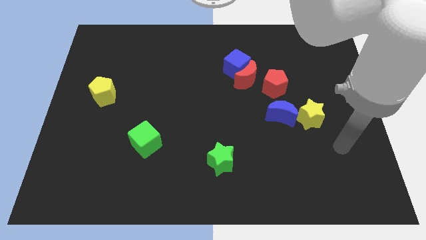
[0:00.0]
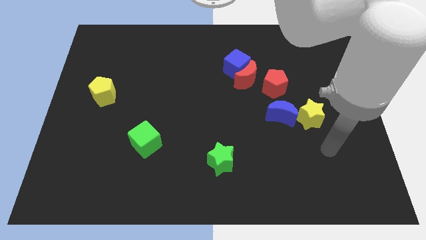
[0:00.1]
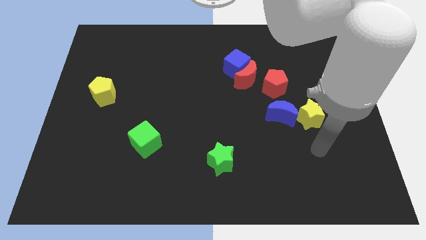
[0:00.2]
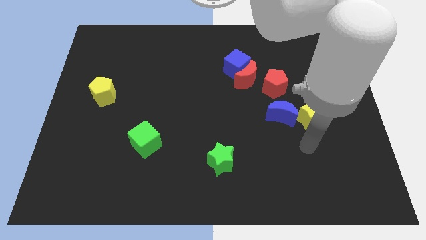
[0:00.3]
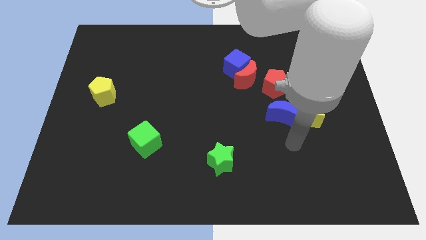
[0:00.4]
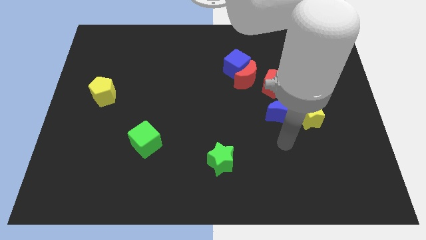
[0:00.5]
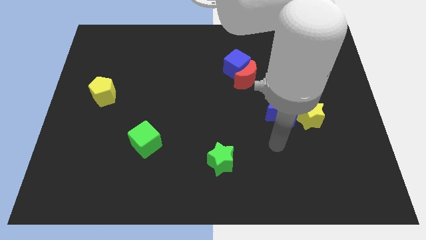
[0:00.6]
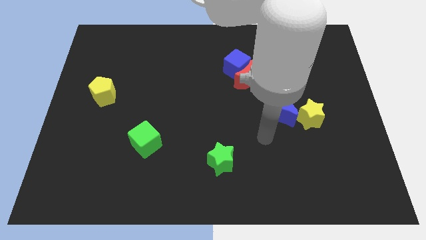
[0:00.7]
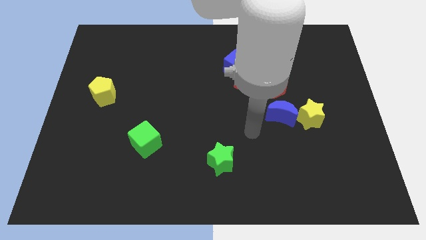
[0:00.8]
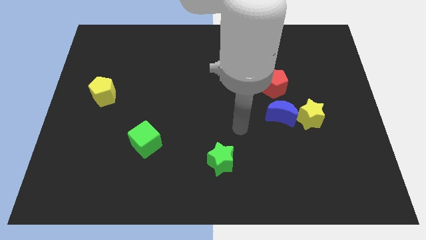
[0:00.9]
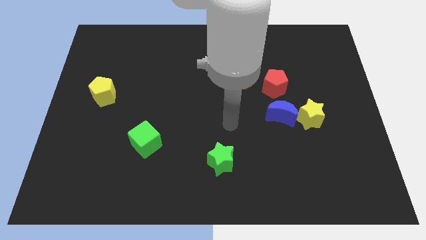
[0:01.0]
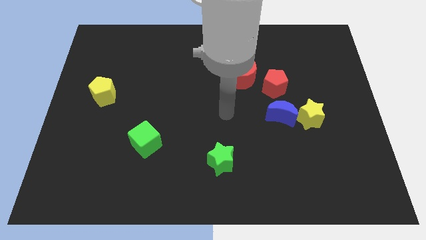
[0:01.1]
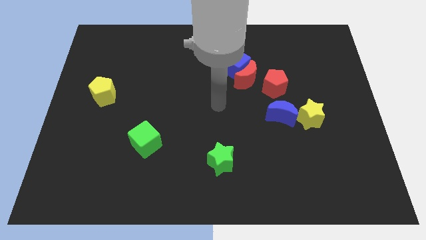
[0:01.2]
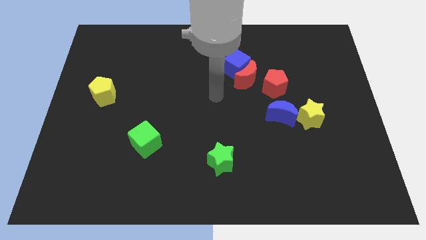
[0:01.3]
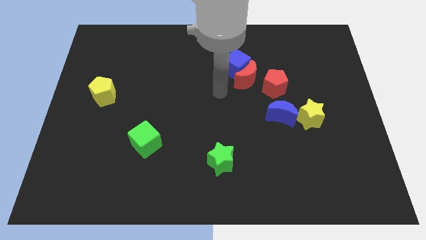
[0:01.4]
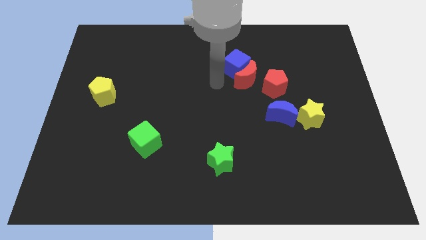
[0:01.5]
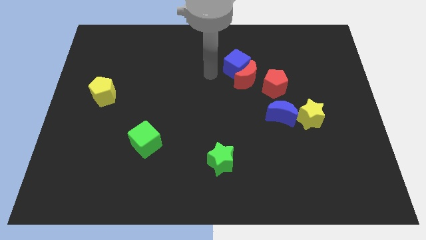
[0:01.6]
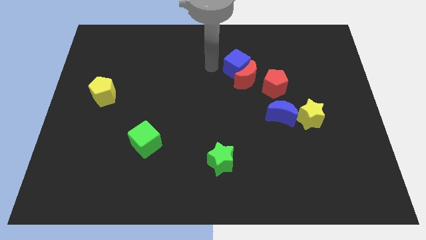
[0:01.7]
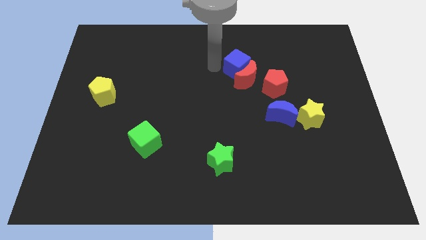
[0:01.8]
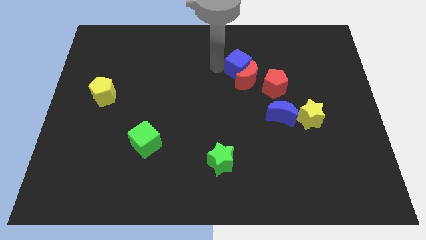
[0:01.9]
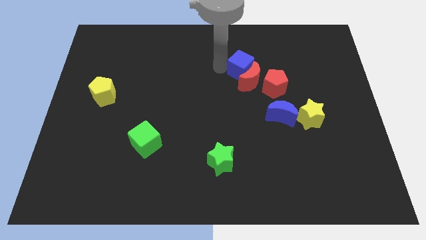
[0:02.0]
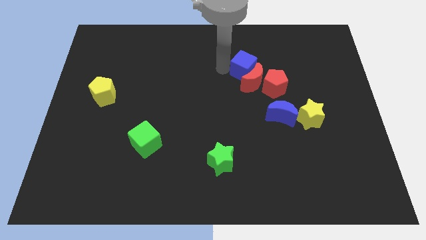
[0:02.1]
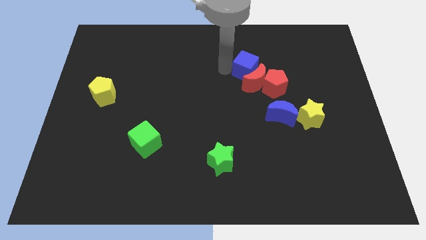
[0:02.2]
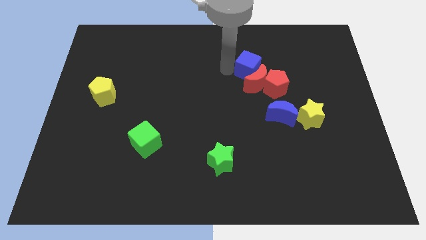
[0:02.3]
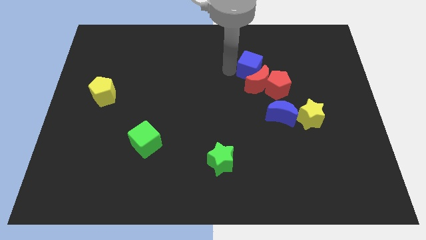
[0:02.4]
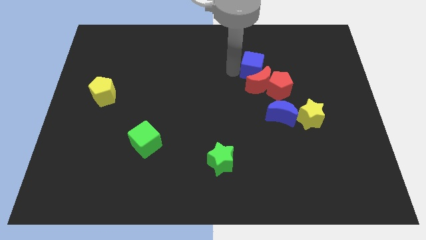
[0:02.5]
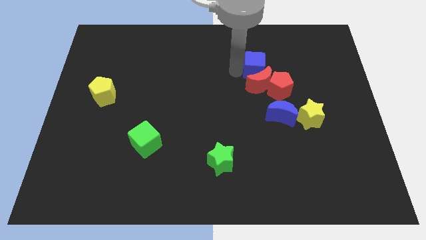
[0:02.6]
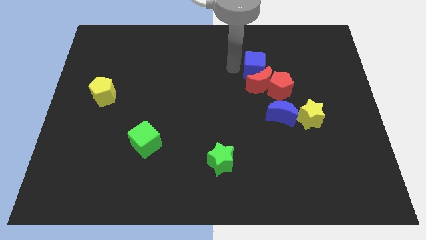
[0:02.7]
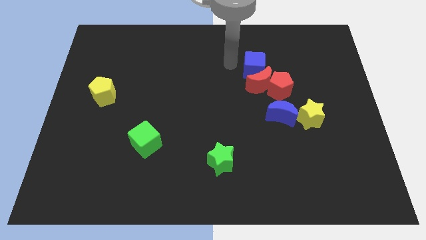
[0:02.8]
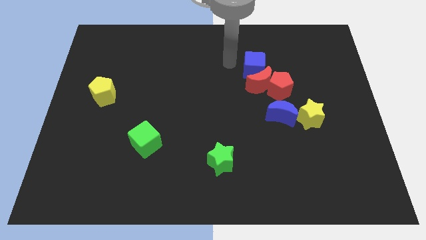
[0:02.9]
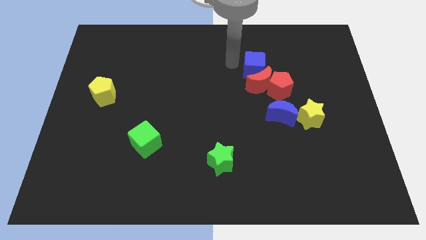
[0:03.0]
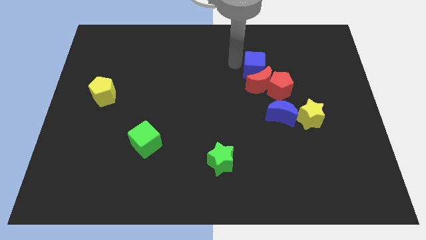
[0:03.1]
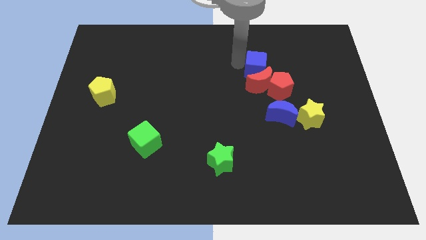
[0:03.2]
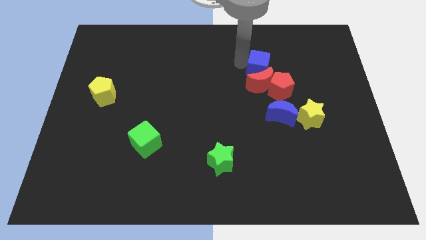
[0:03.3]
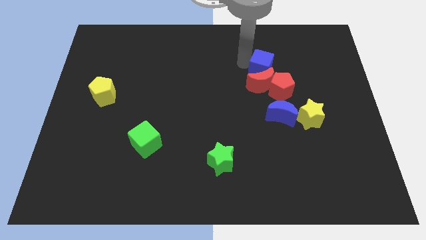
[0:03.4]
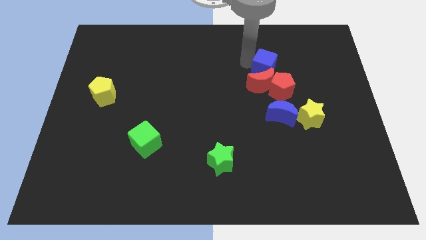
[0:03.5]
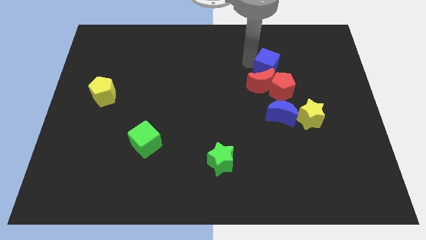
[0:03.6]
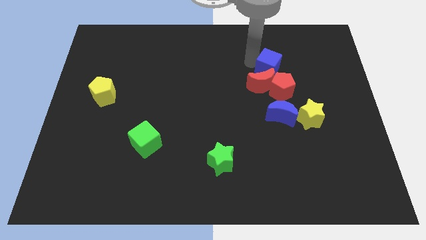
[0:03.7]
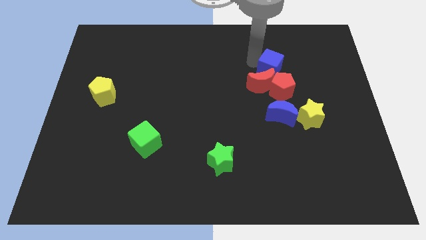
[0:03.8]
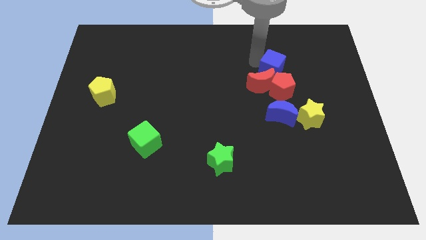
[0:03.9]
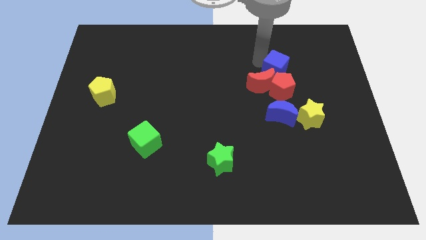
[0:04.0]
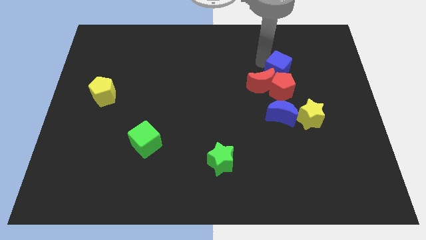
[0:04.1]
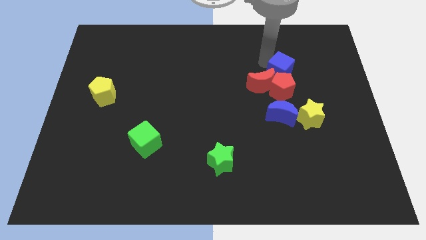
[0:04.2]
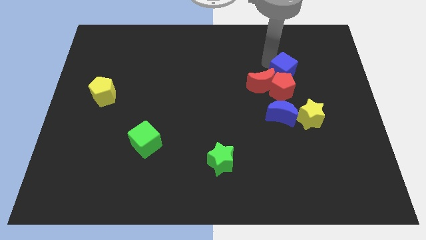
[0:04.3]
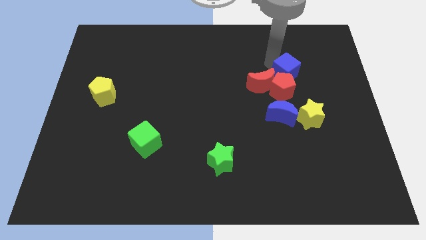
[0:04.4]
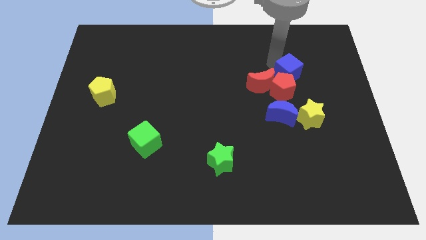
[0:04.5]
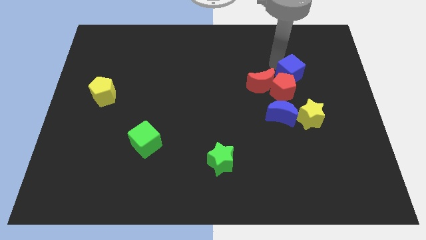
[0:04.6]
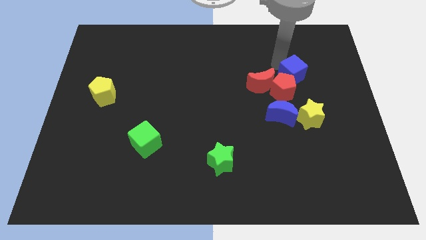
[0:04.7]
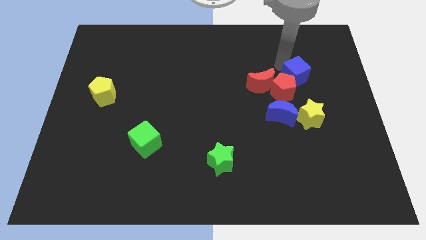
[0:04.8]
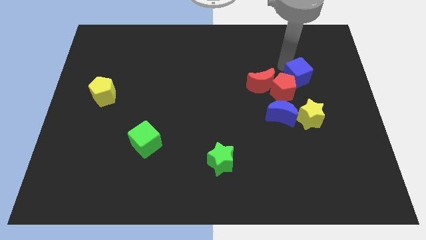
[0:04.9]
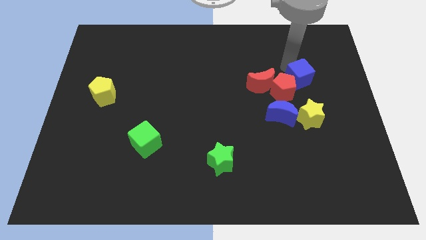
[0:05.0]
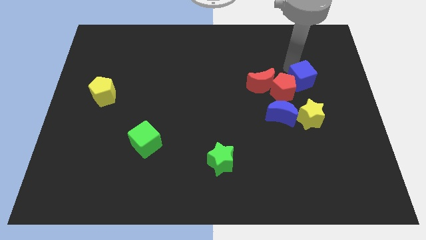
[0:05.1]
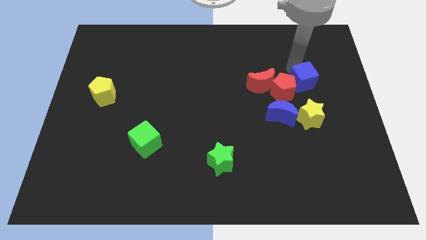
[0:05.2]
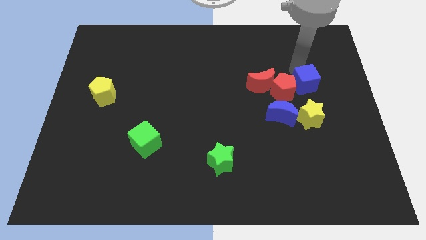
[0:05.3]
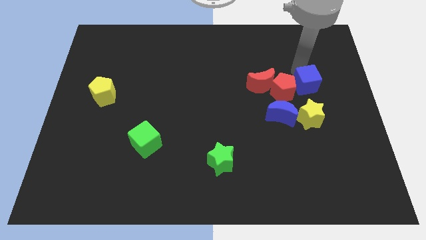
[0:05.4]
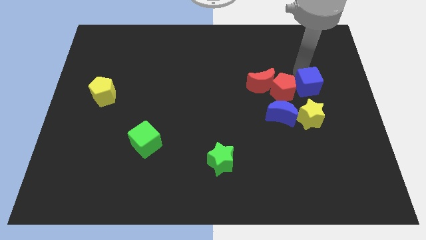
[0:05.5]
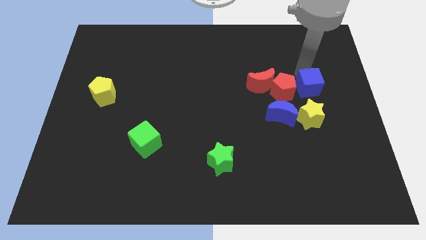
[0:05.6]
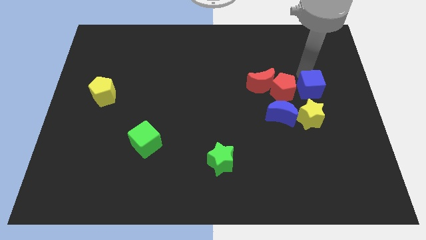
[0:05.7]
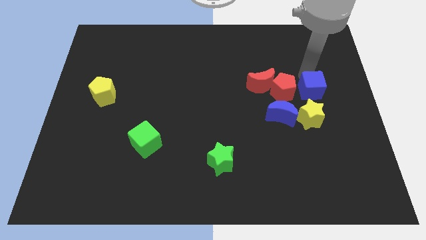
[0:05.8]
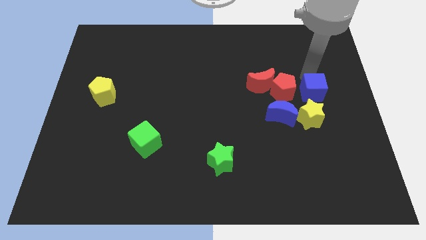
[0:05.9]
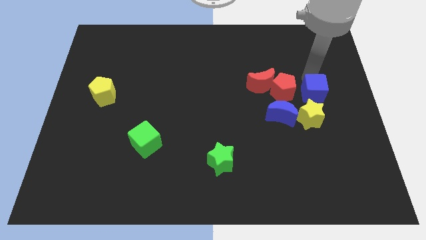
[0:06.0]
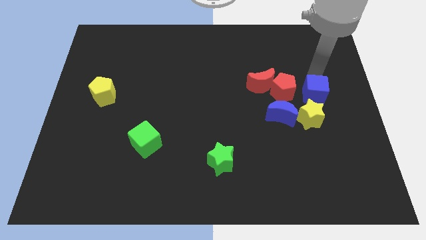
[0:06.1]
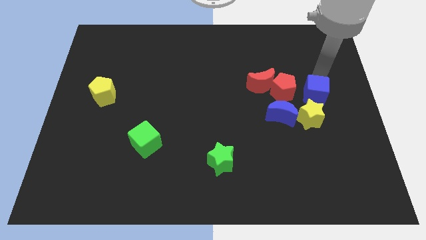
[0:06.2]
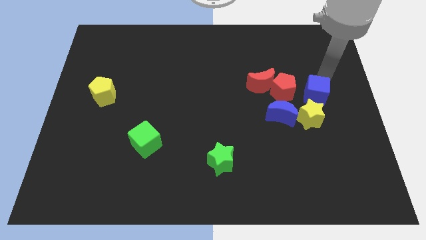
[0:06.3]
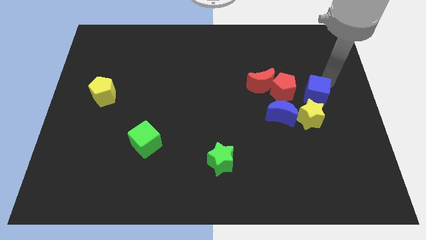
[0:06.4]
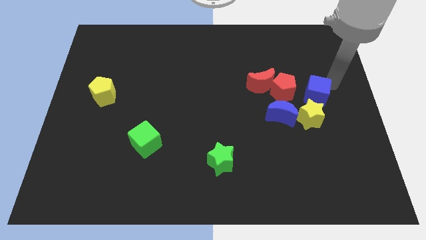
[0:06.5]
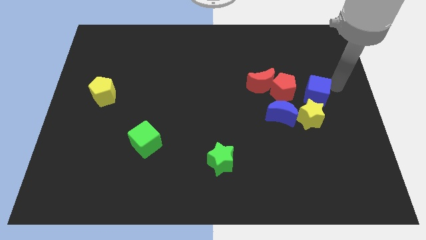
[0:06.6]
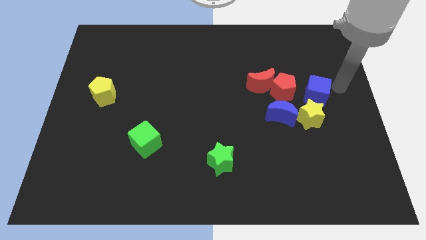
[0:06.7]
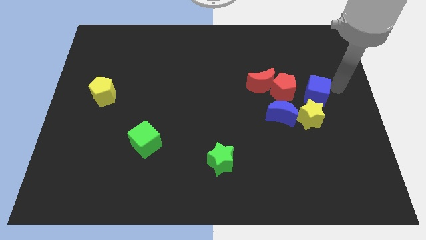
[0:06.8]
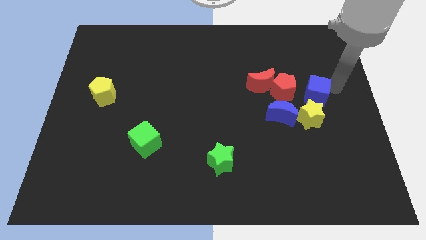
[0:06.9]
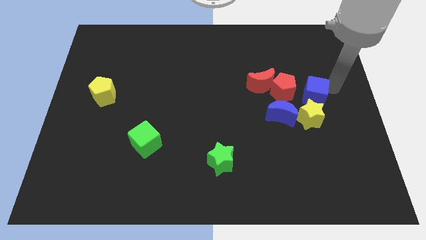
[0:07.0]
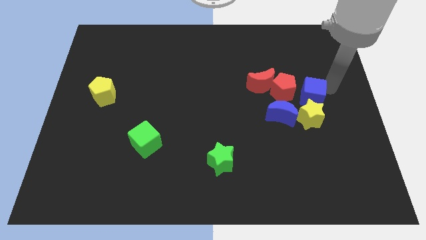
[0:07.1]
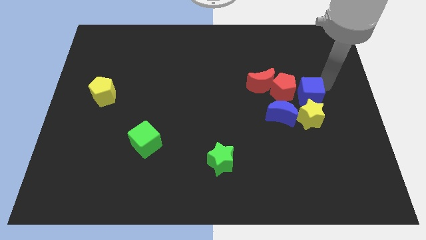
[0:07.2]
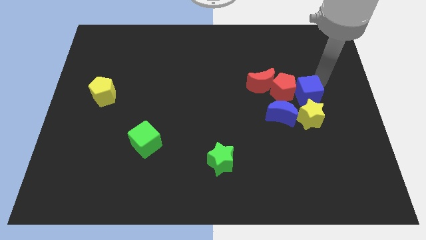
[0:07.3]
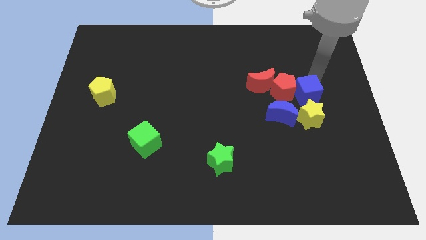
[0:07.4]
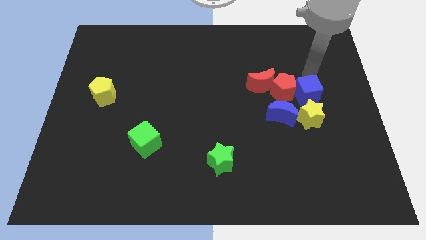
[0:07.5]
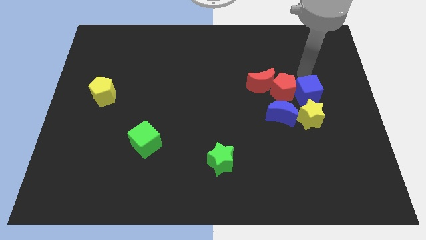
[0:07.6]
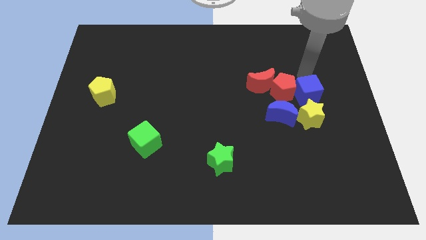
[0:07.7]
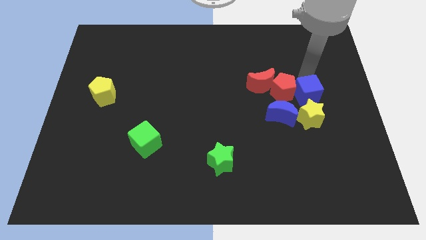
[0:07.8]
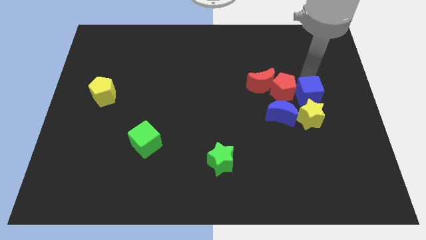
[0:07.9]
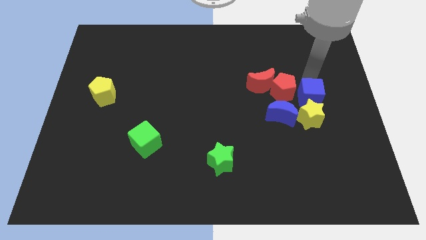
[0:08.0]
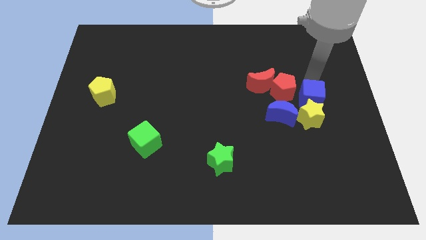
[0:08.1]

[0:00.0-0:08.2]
push the blue cube to the yellow star
